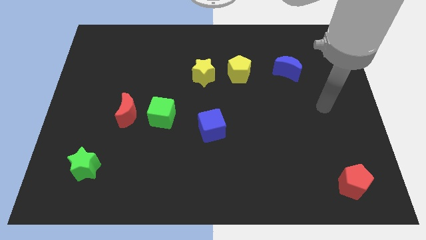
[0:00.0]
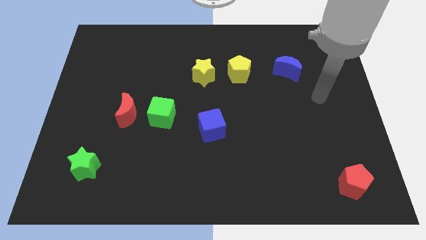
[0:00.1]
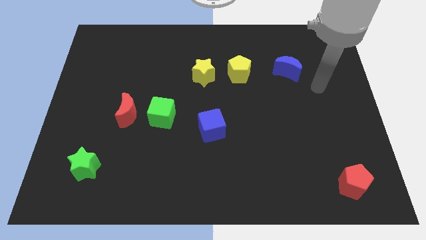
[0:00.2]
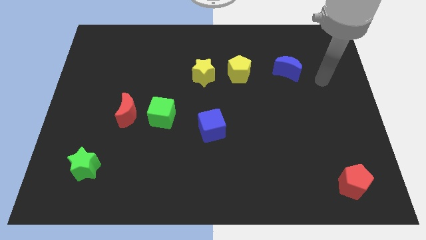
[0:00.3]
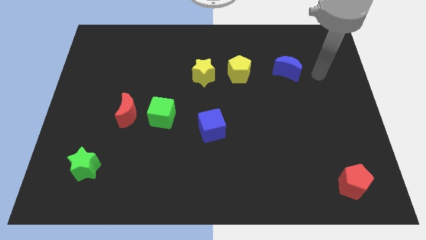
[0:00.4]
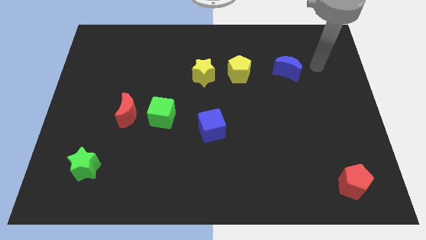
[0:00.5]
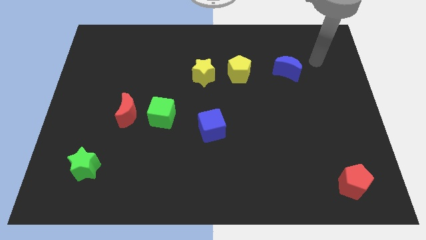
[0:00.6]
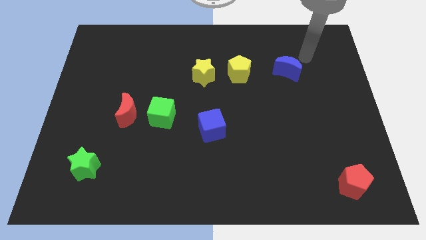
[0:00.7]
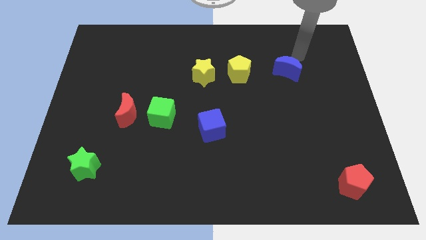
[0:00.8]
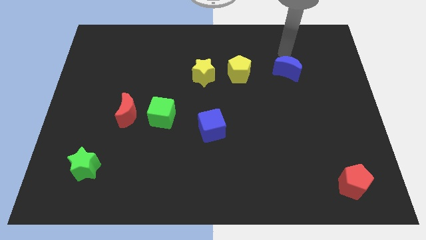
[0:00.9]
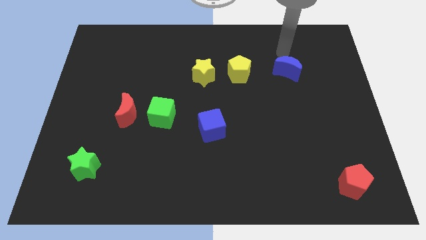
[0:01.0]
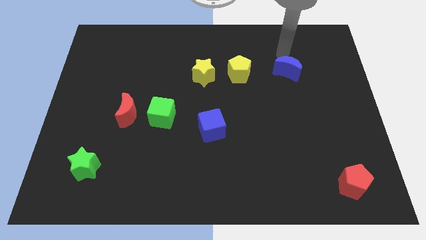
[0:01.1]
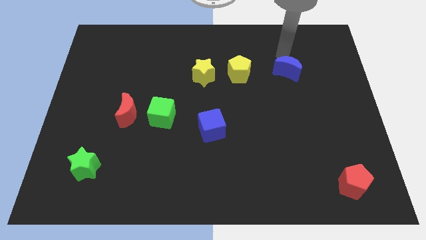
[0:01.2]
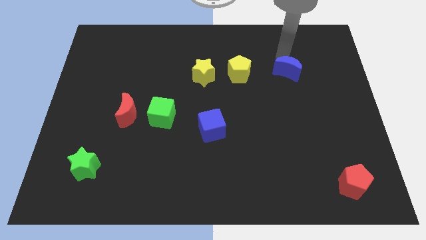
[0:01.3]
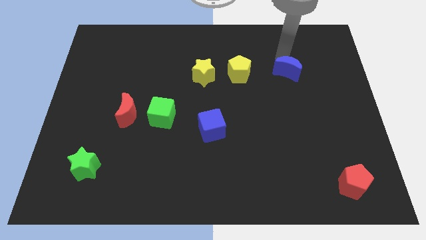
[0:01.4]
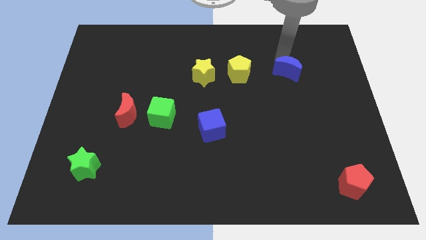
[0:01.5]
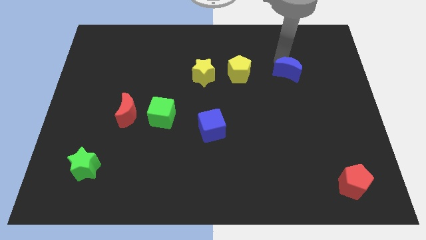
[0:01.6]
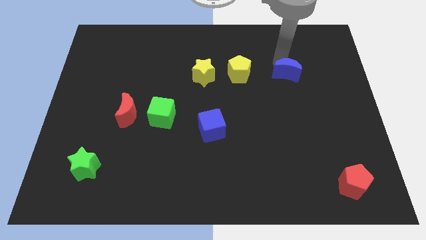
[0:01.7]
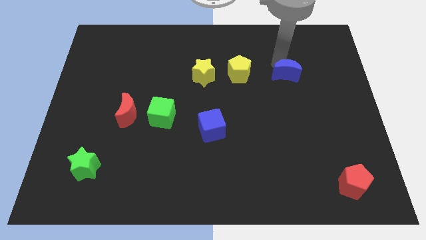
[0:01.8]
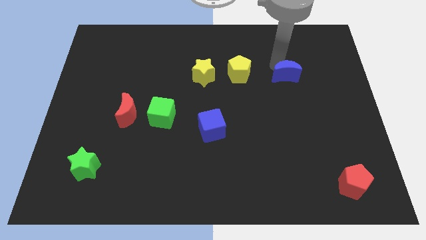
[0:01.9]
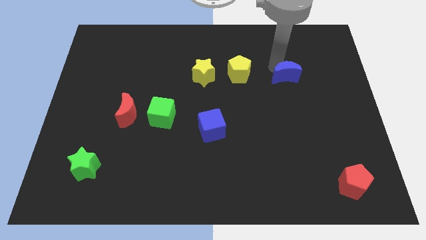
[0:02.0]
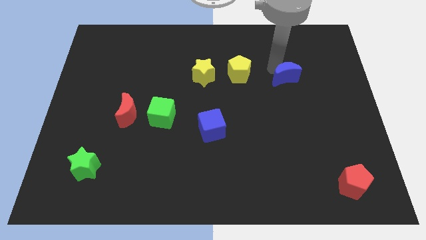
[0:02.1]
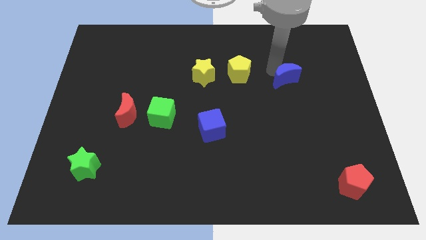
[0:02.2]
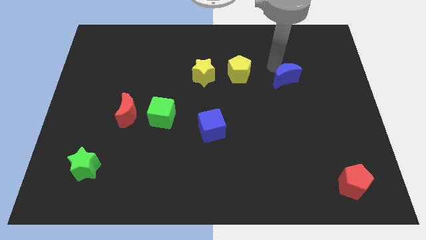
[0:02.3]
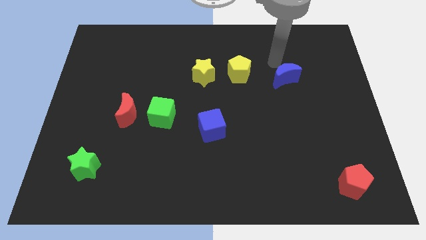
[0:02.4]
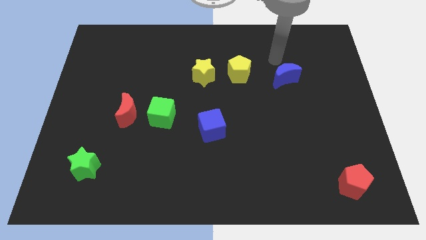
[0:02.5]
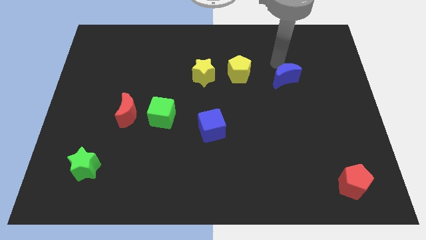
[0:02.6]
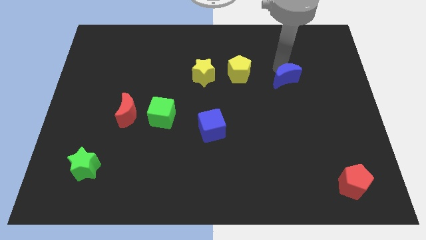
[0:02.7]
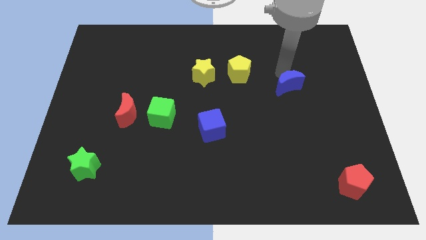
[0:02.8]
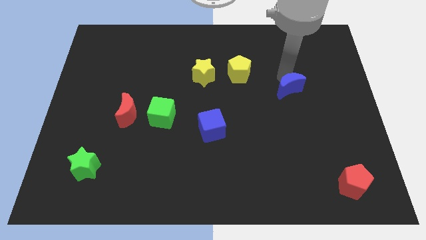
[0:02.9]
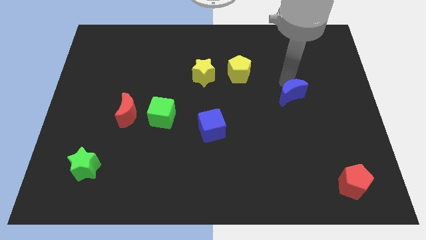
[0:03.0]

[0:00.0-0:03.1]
push the blue moon somewhat downwards

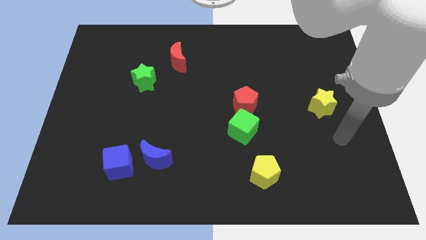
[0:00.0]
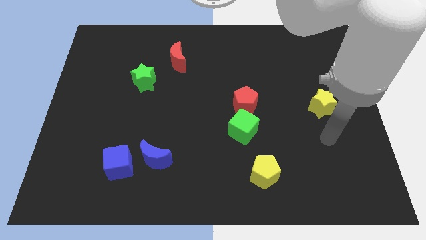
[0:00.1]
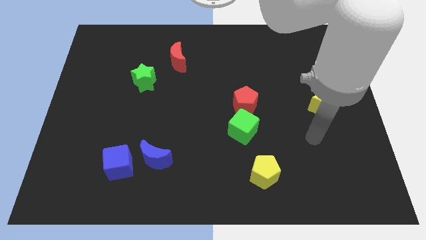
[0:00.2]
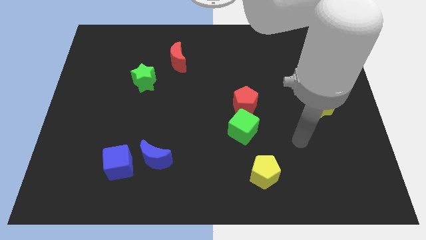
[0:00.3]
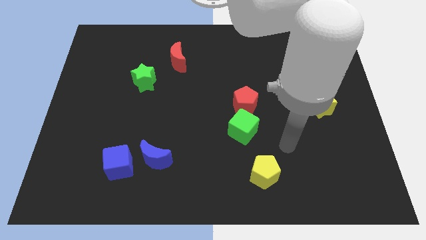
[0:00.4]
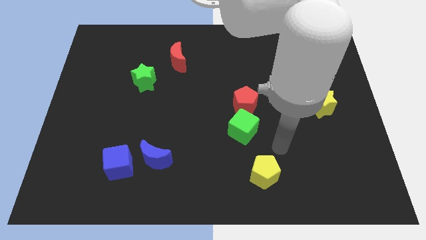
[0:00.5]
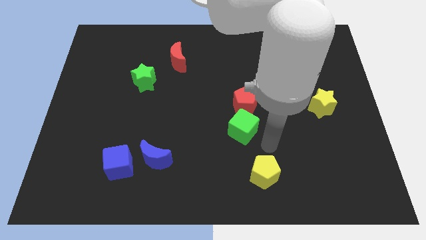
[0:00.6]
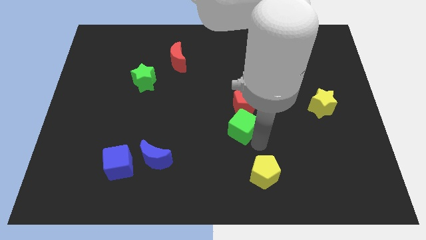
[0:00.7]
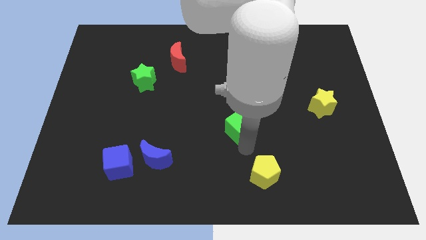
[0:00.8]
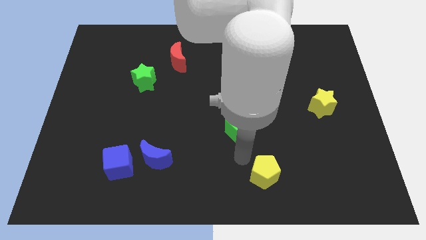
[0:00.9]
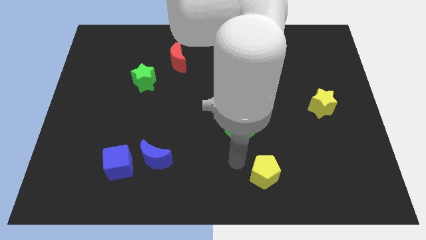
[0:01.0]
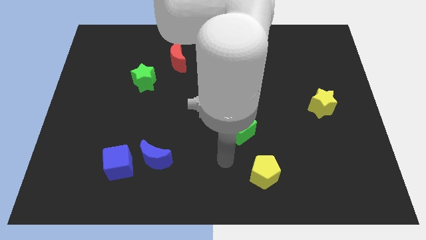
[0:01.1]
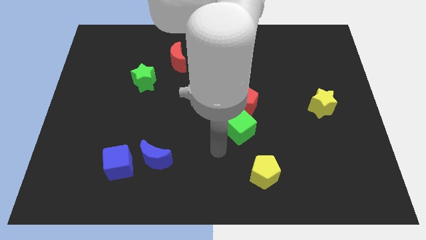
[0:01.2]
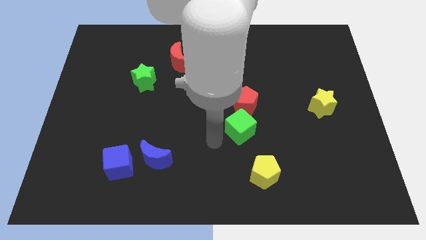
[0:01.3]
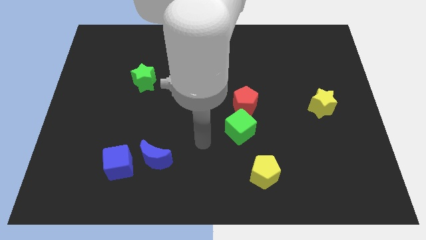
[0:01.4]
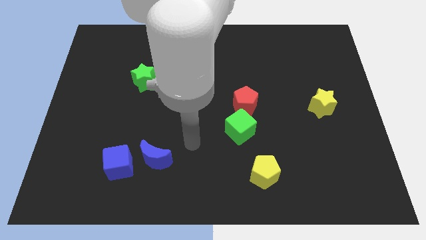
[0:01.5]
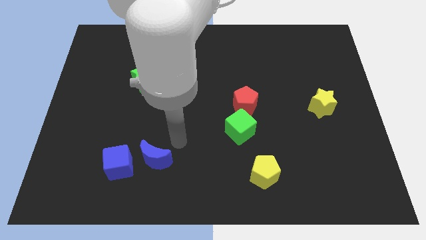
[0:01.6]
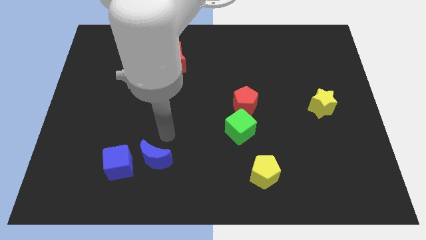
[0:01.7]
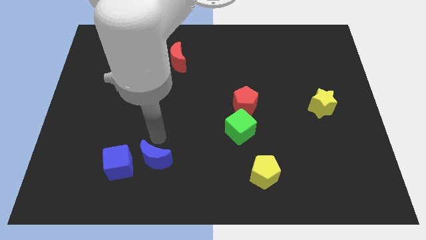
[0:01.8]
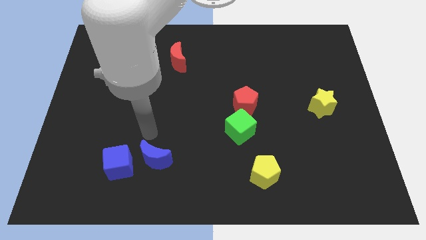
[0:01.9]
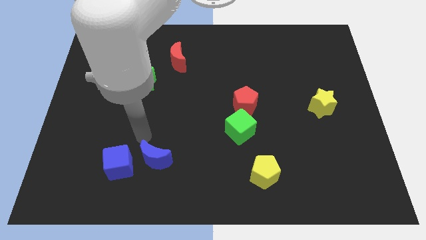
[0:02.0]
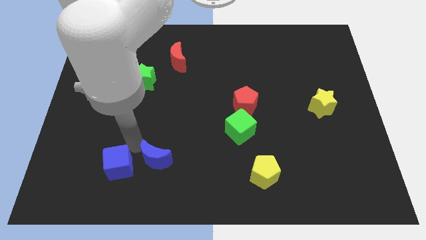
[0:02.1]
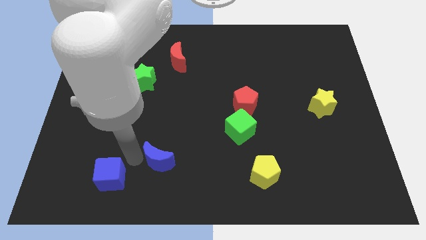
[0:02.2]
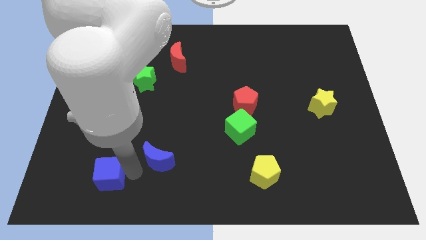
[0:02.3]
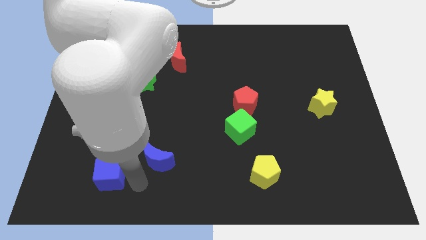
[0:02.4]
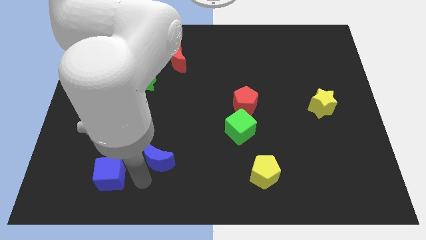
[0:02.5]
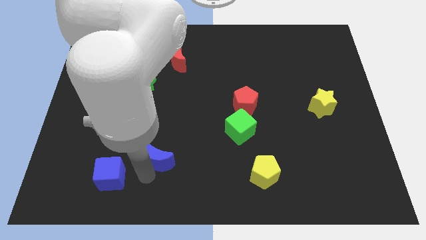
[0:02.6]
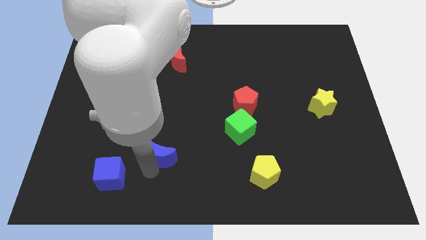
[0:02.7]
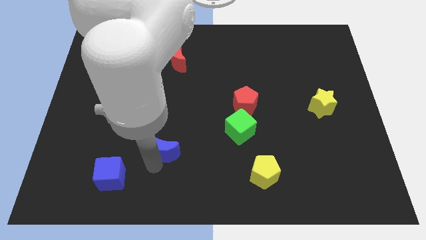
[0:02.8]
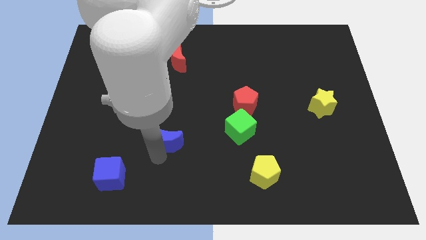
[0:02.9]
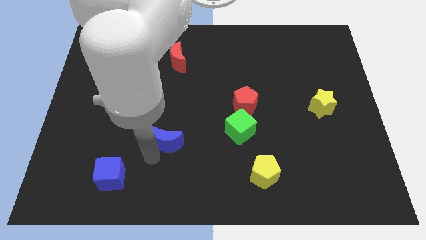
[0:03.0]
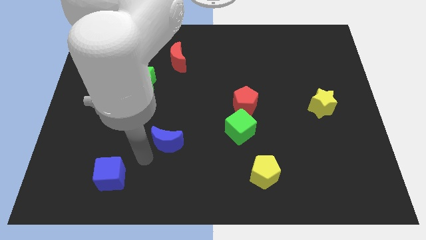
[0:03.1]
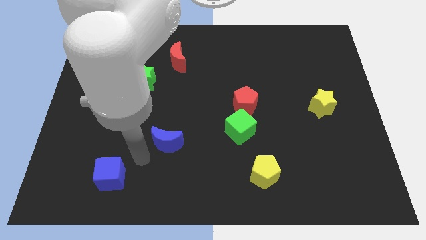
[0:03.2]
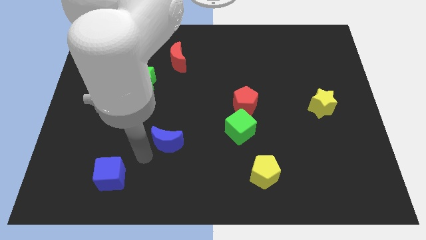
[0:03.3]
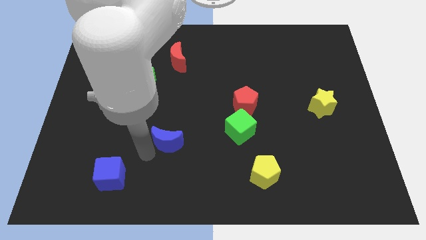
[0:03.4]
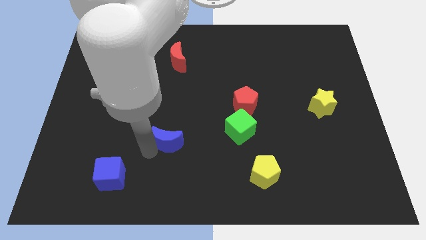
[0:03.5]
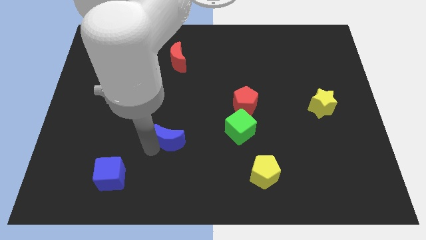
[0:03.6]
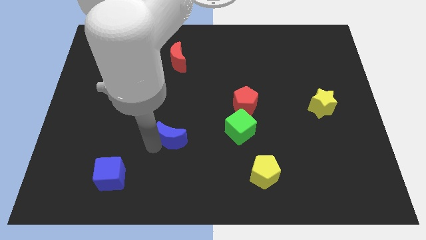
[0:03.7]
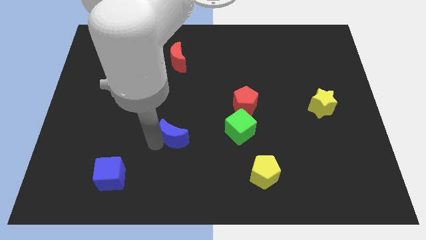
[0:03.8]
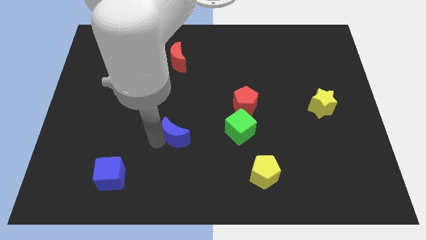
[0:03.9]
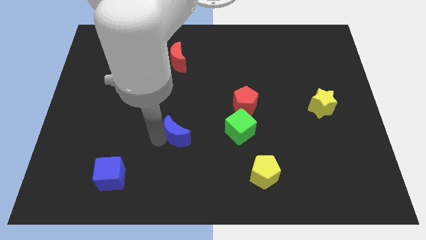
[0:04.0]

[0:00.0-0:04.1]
push the blue moon somewhat upwards and right diagonally

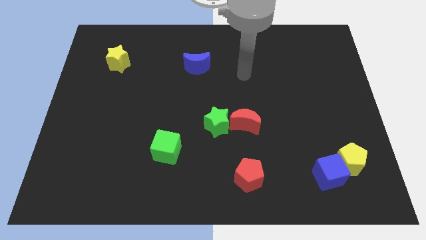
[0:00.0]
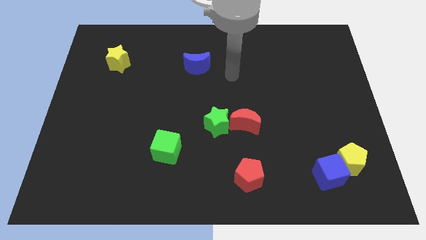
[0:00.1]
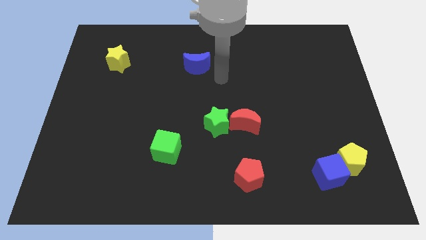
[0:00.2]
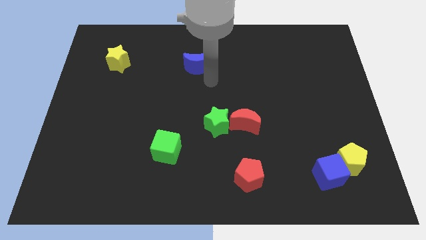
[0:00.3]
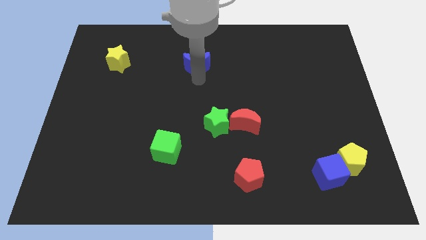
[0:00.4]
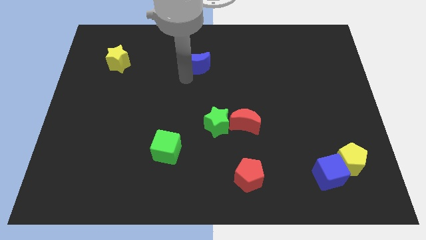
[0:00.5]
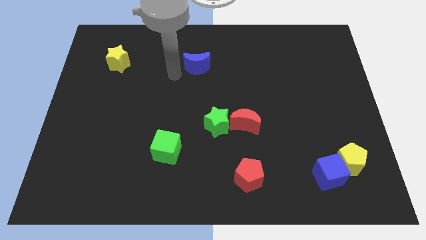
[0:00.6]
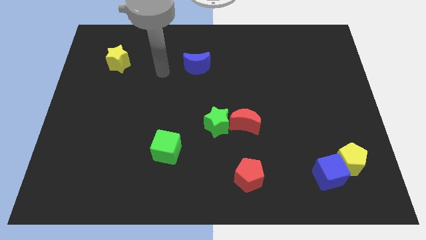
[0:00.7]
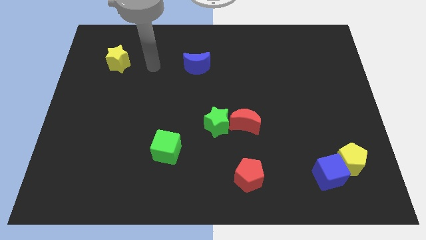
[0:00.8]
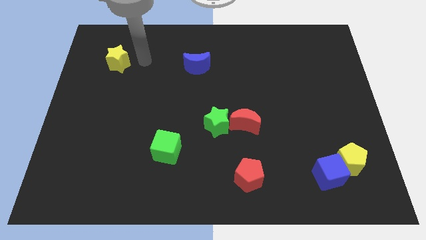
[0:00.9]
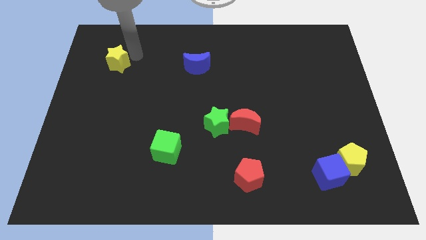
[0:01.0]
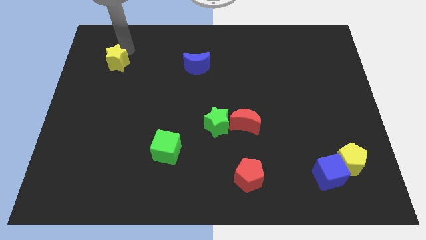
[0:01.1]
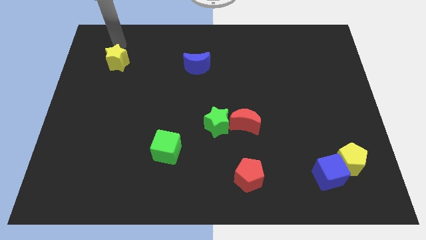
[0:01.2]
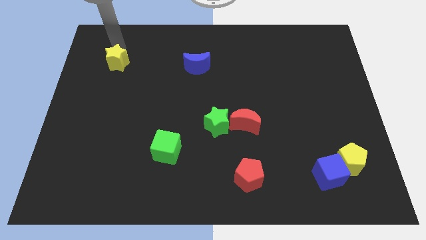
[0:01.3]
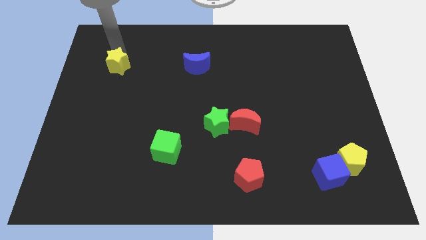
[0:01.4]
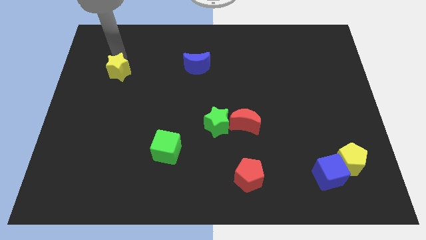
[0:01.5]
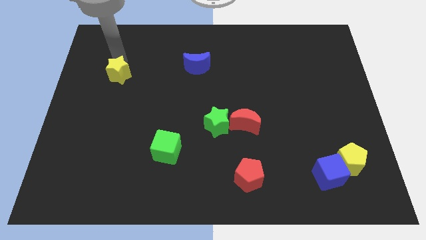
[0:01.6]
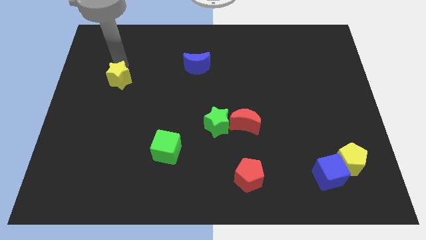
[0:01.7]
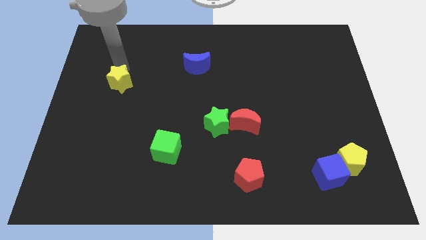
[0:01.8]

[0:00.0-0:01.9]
slide the yellow star down slightly
